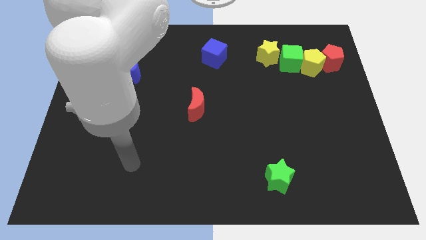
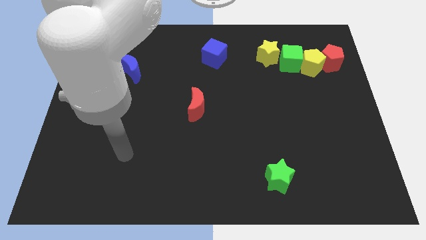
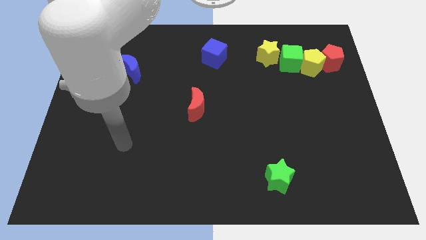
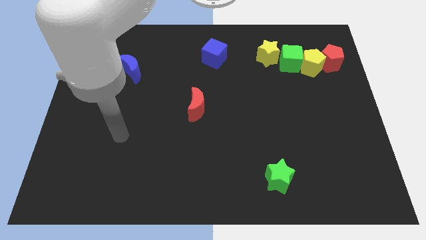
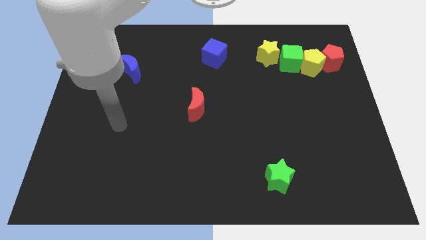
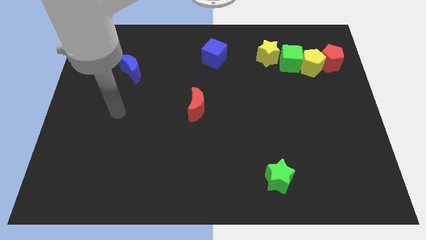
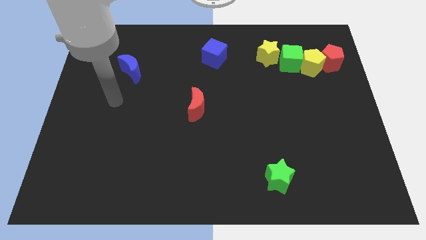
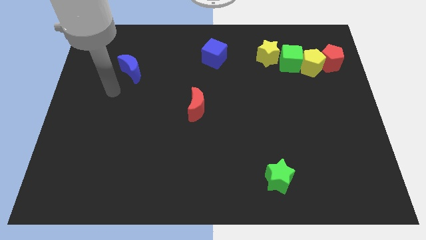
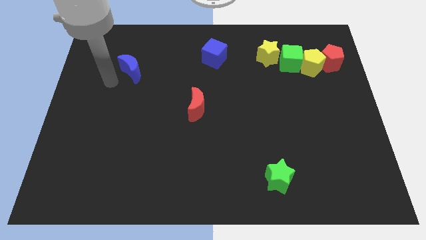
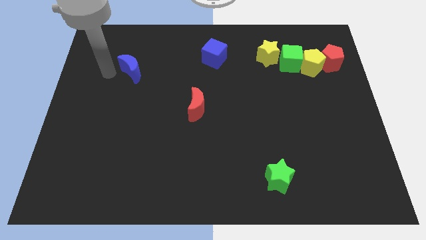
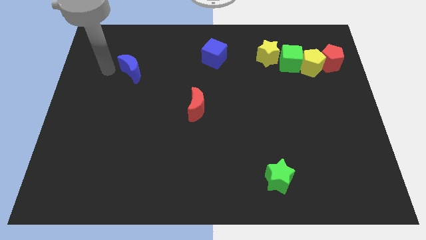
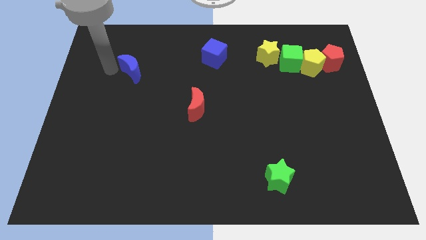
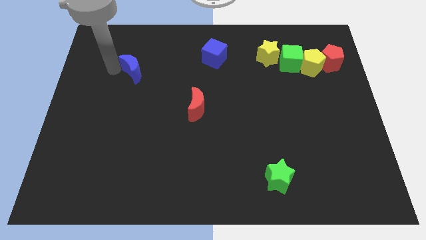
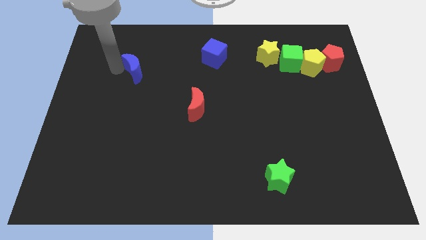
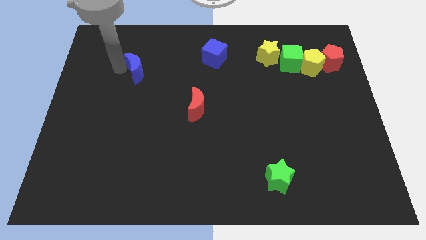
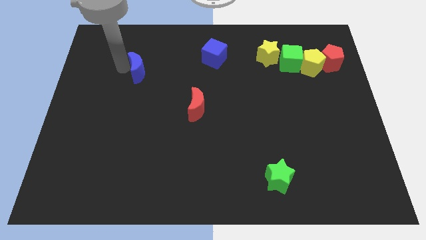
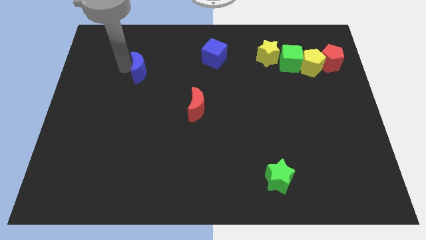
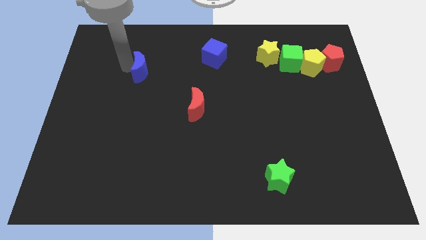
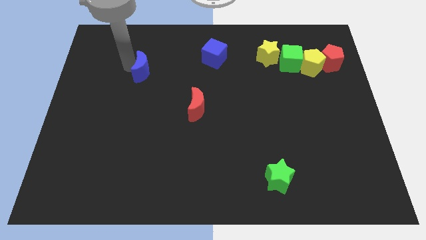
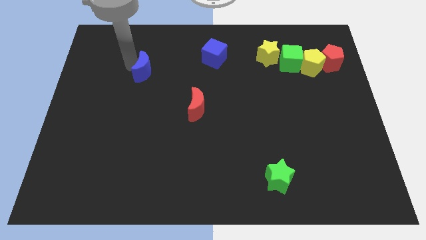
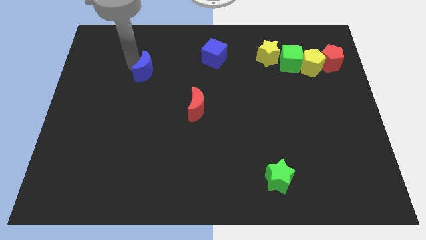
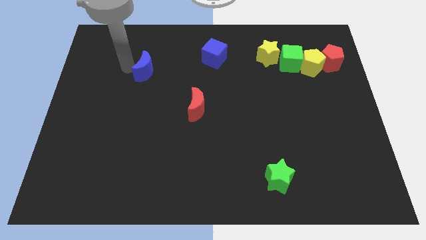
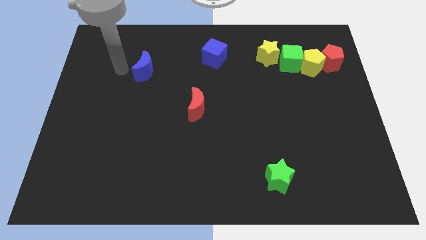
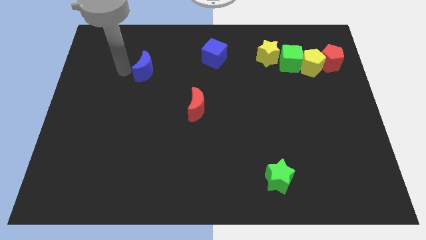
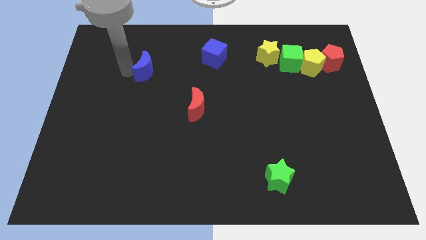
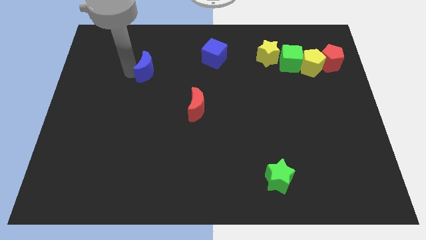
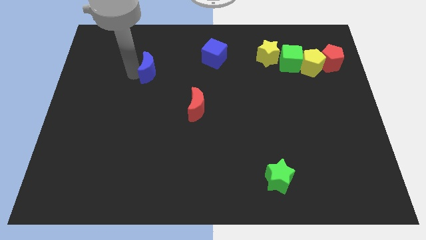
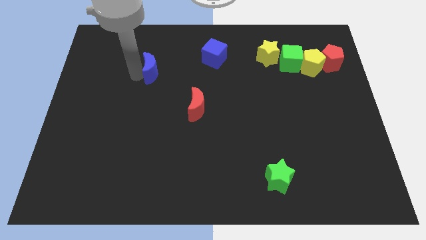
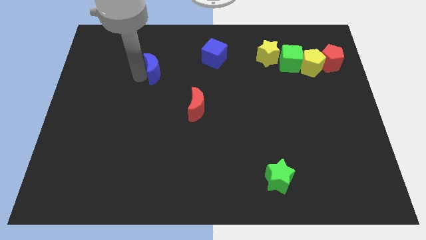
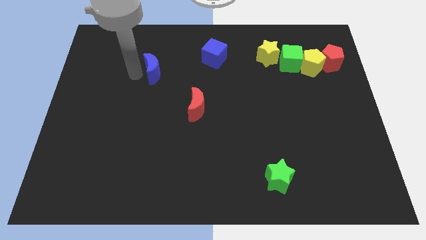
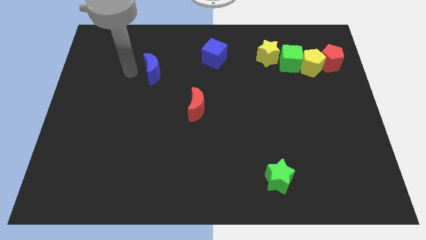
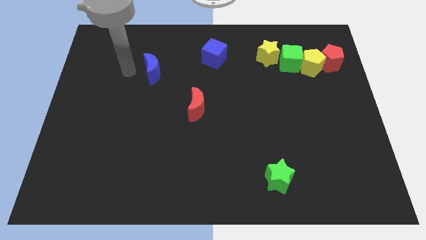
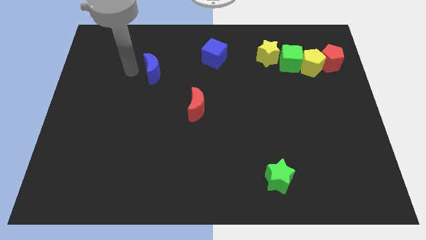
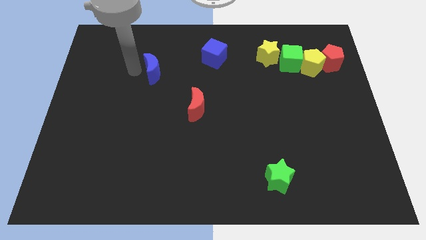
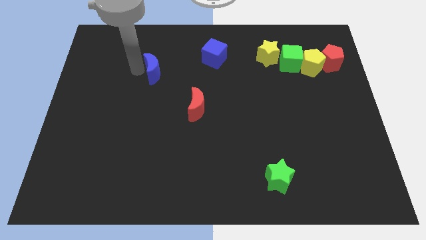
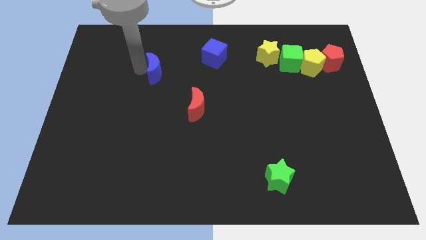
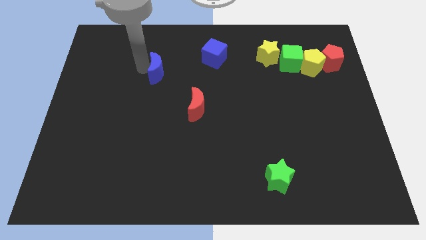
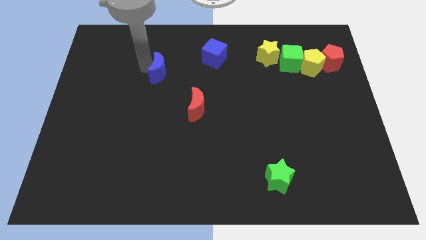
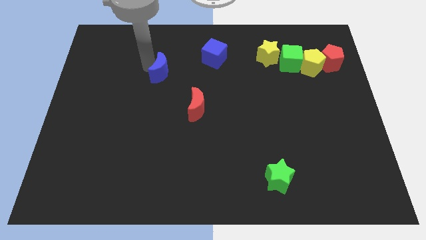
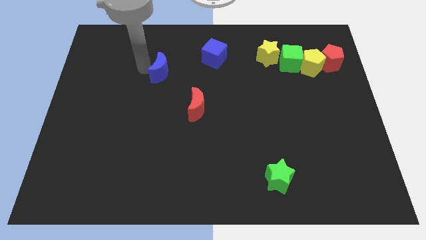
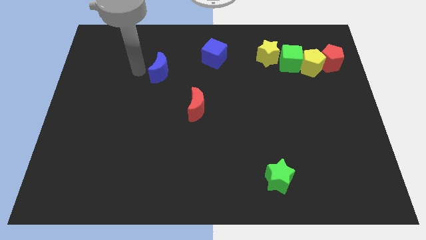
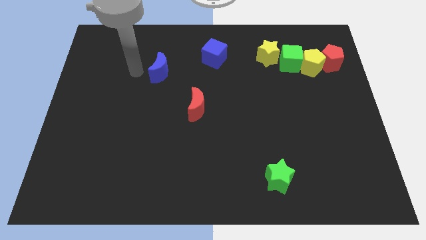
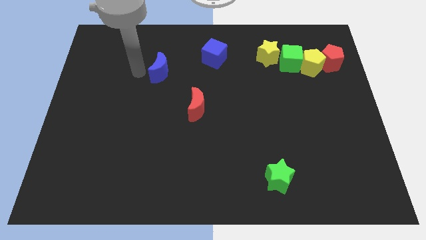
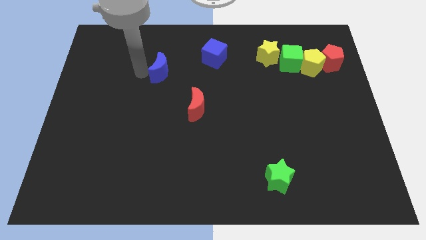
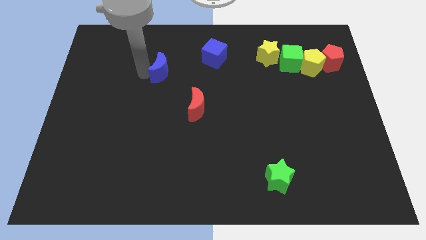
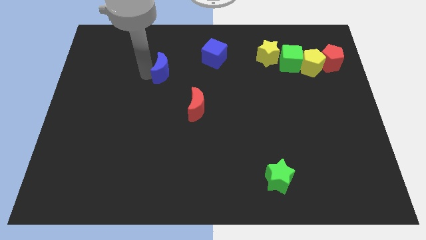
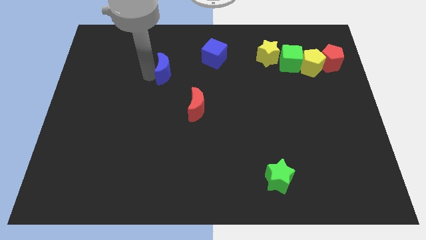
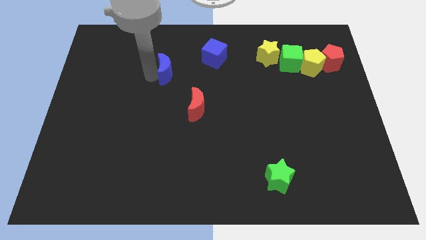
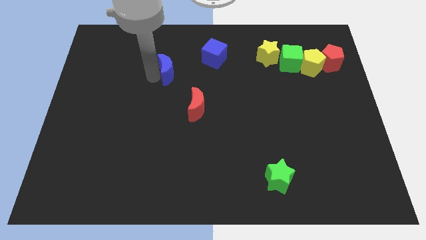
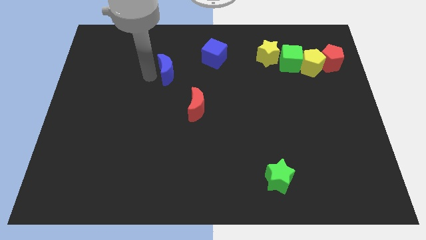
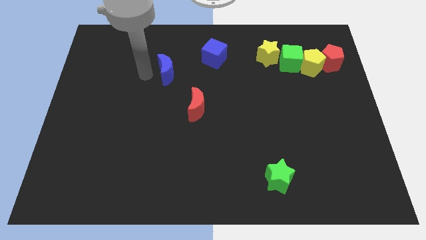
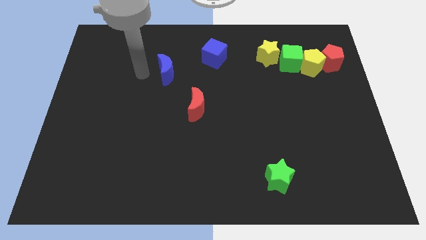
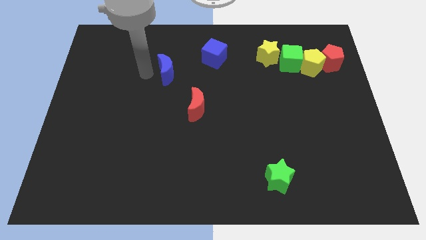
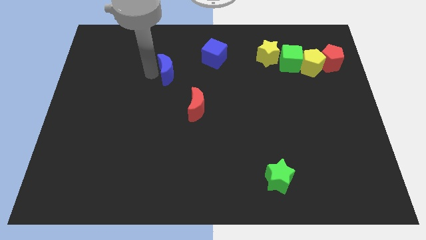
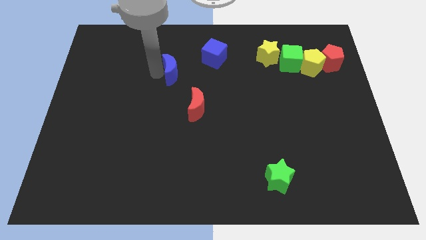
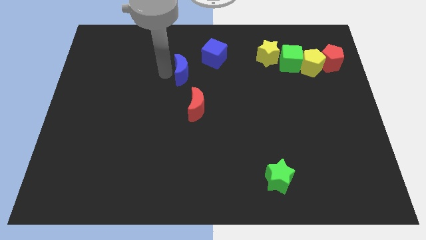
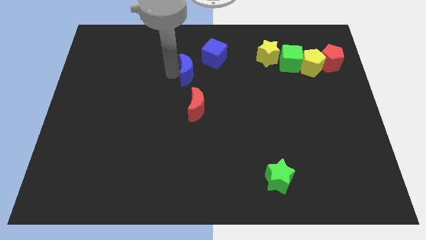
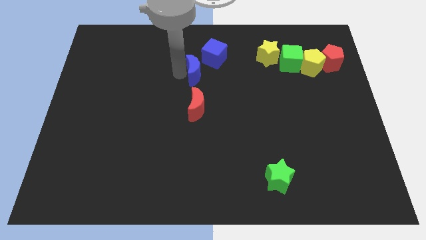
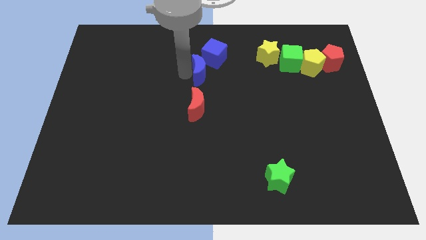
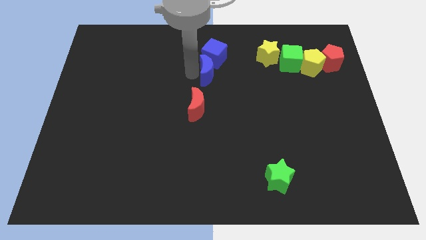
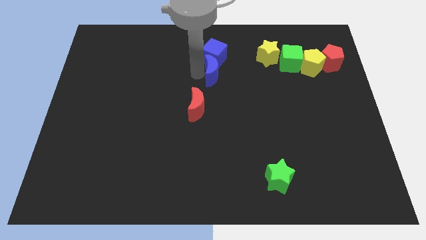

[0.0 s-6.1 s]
push the blue moon to the right

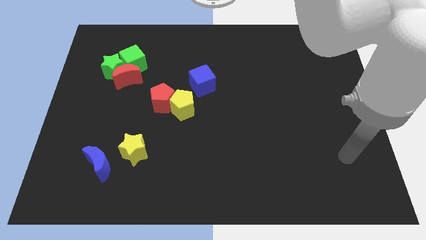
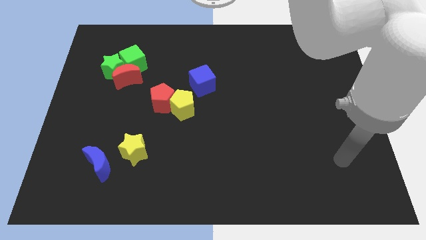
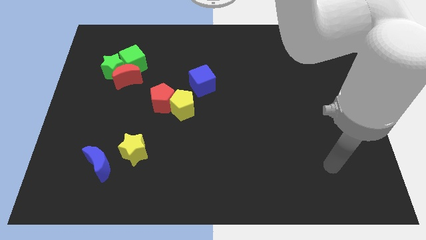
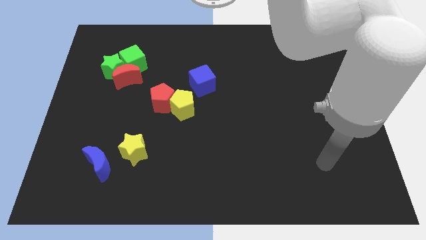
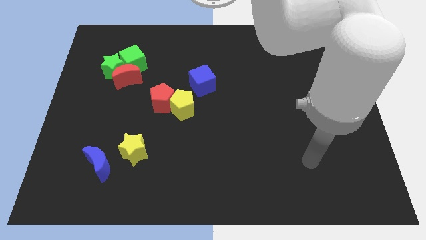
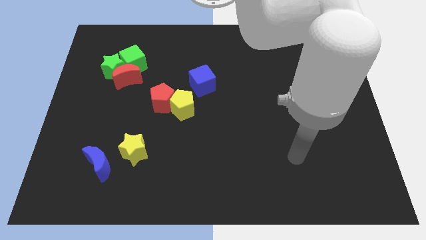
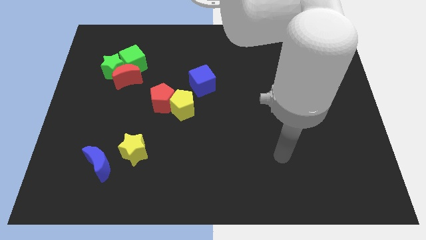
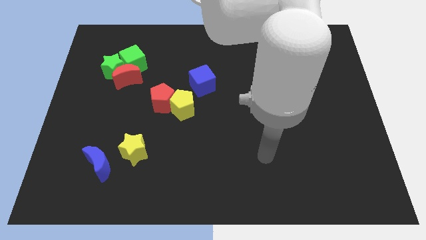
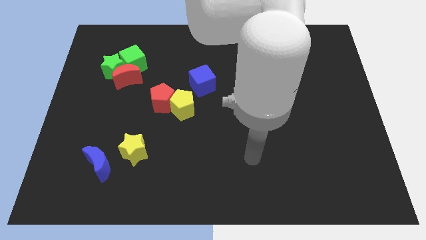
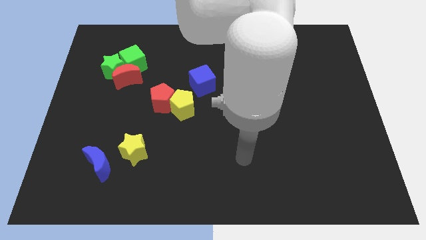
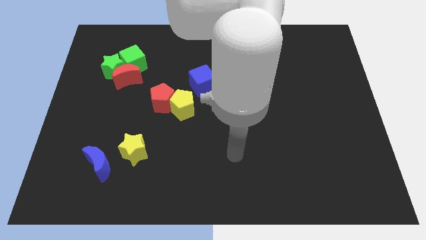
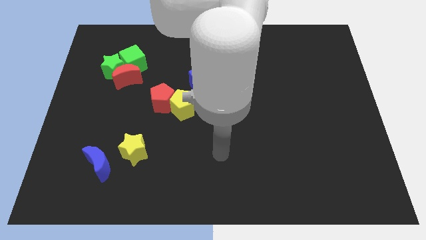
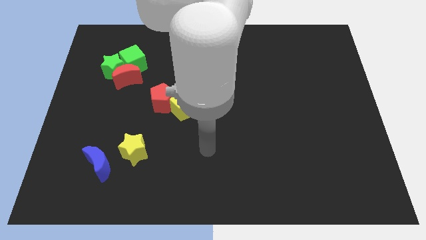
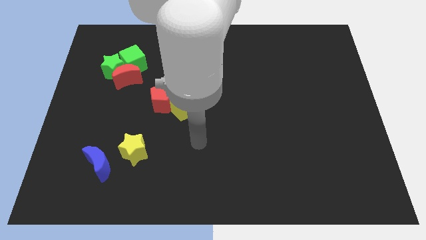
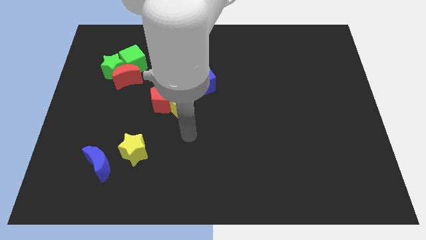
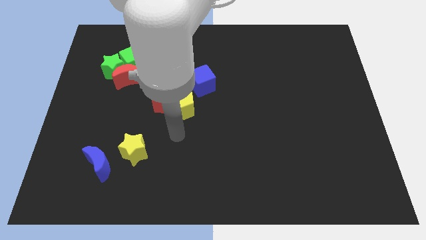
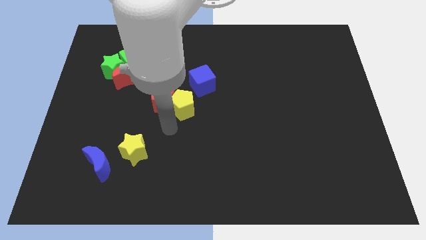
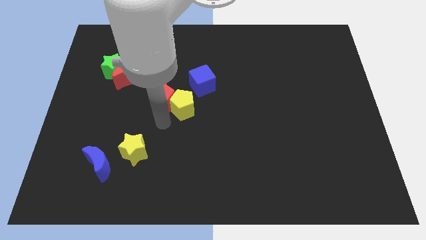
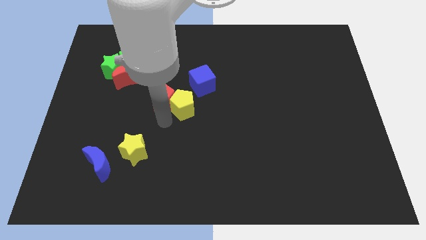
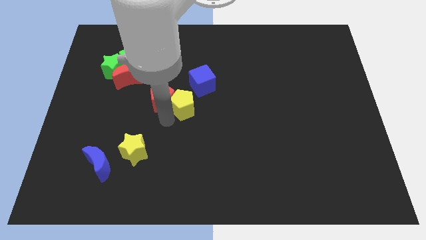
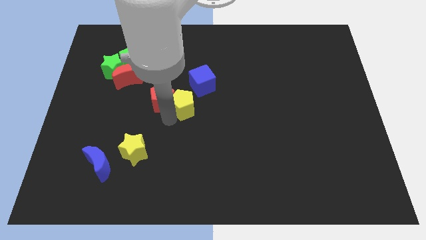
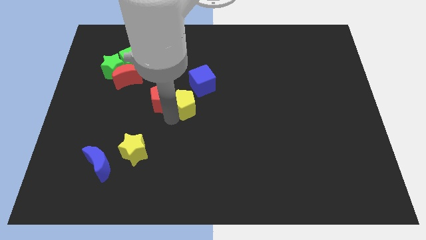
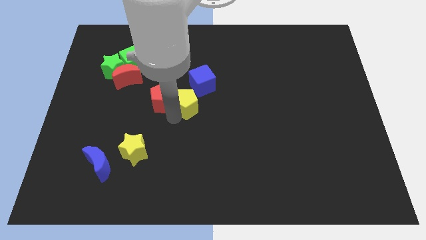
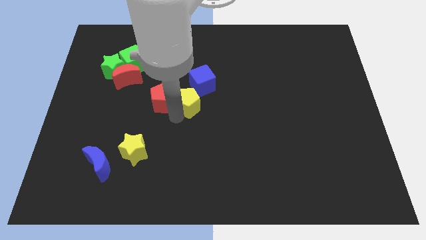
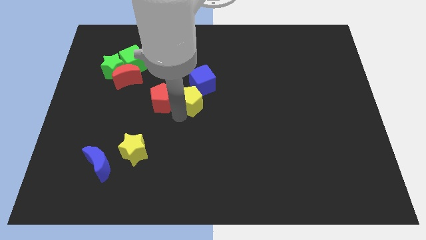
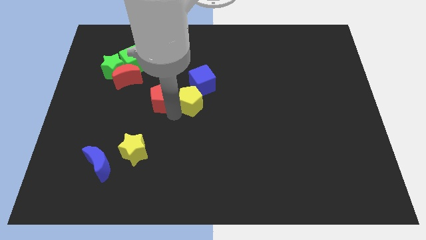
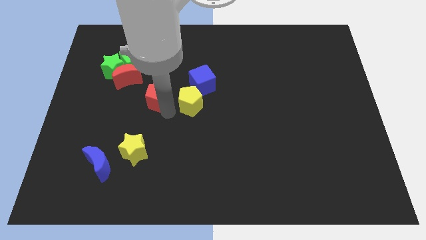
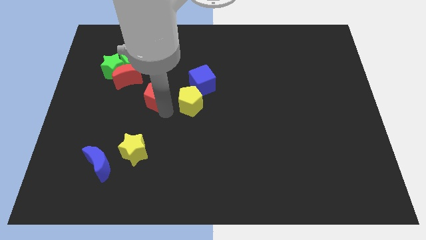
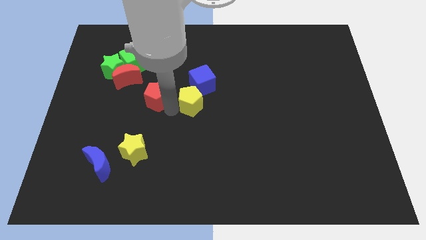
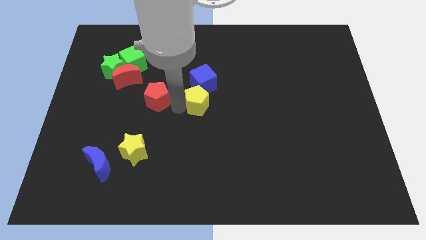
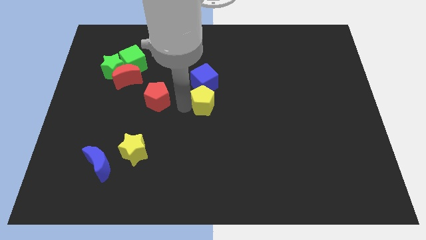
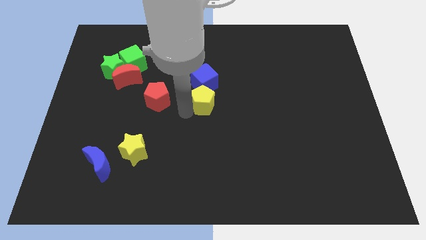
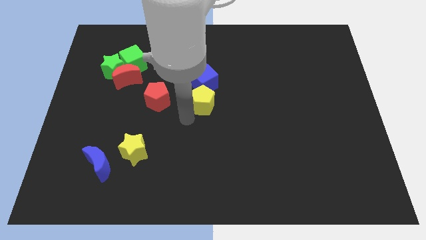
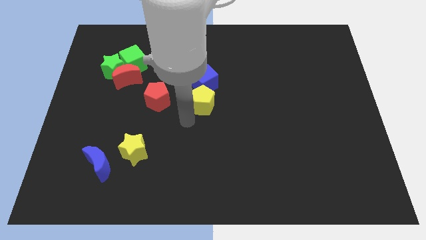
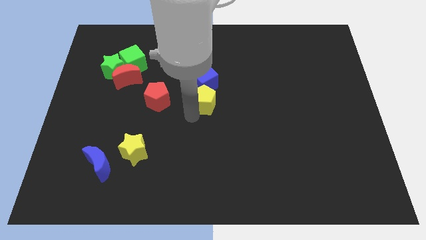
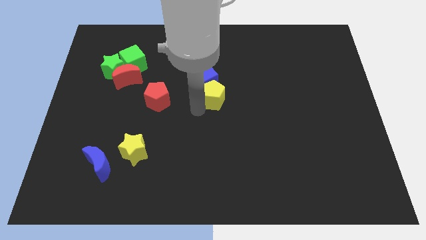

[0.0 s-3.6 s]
push the yellow pentagon slightly up and then right
